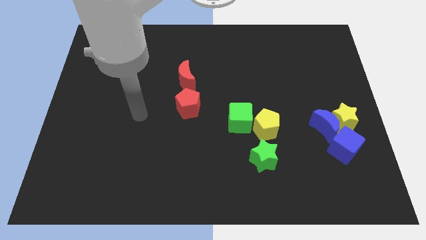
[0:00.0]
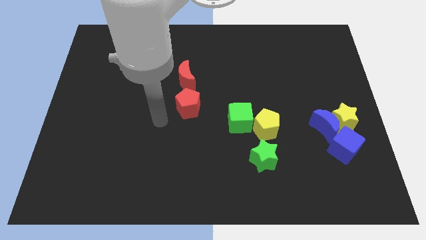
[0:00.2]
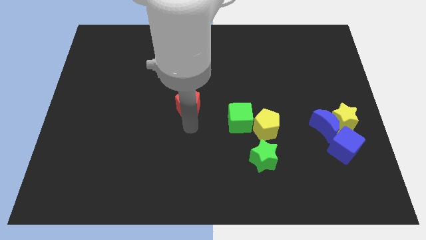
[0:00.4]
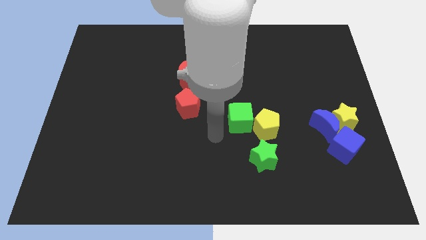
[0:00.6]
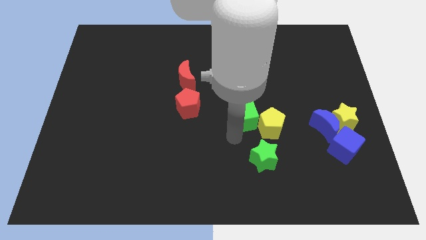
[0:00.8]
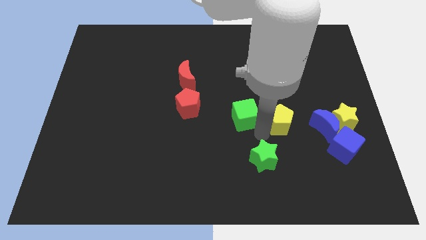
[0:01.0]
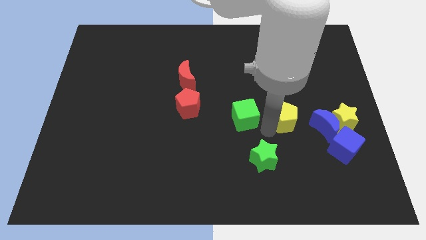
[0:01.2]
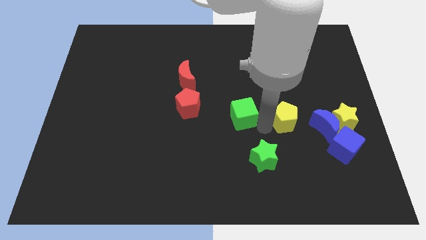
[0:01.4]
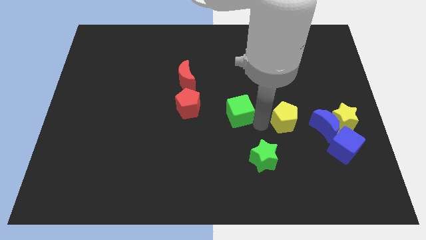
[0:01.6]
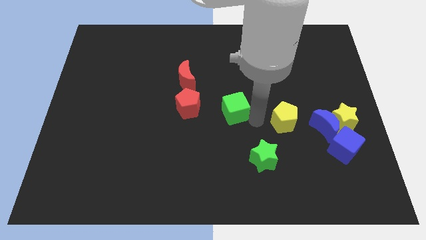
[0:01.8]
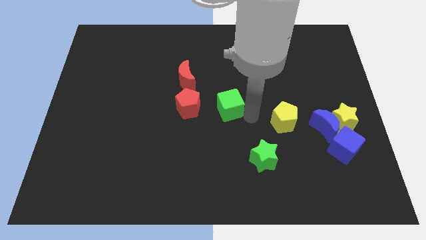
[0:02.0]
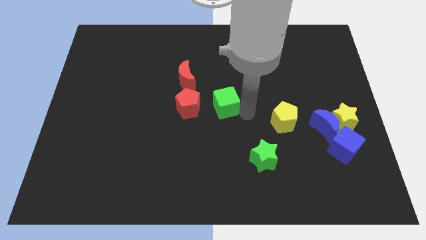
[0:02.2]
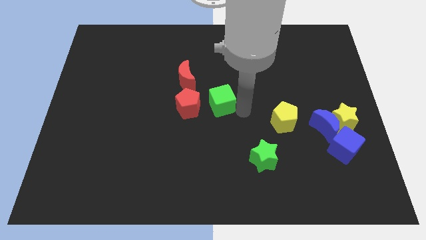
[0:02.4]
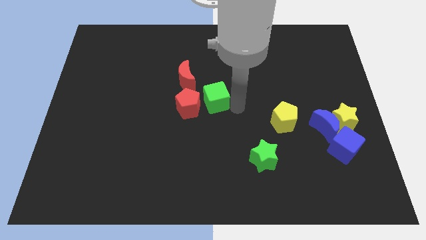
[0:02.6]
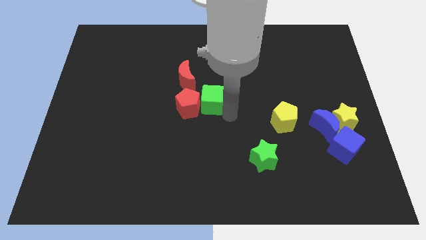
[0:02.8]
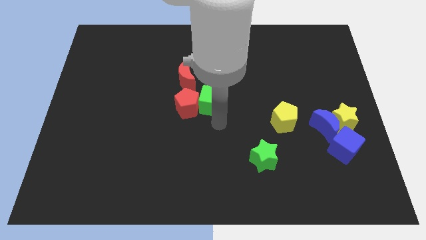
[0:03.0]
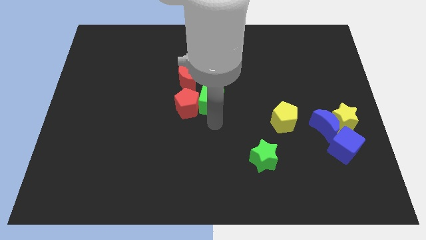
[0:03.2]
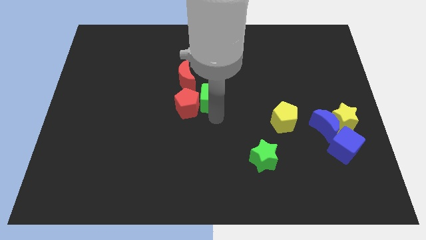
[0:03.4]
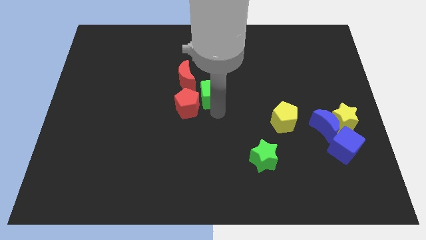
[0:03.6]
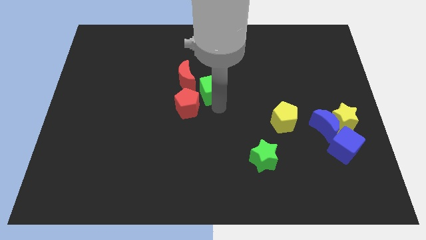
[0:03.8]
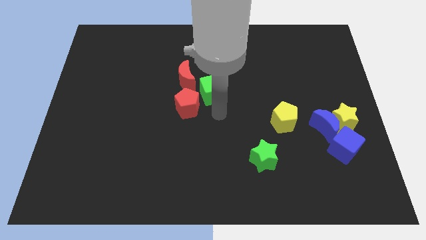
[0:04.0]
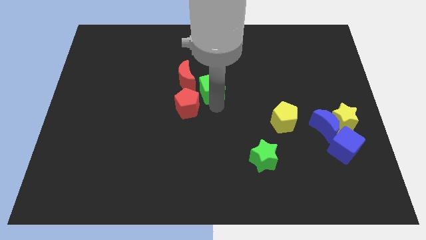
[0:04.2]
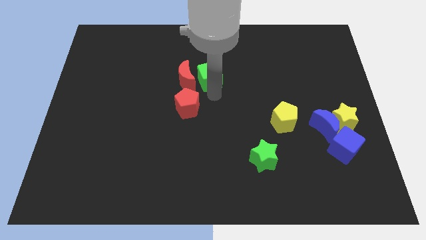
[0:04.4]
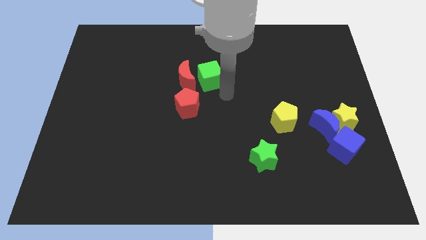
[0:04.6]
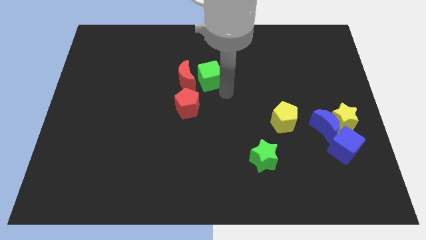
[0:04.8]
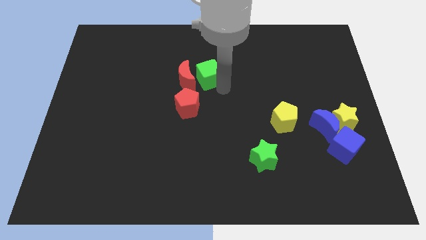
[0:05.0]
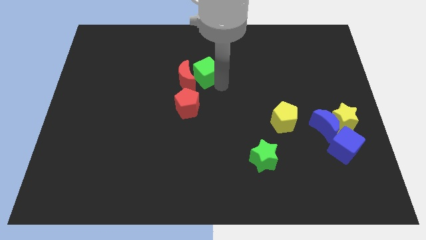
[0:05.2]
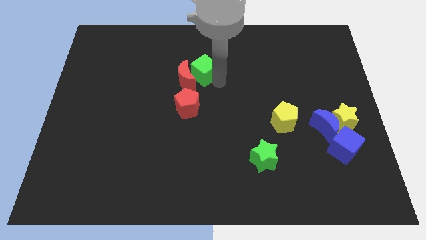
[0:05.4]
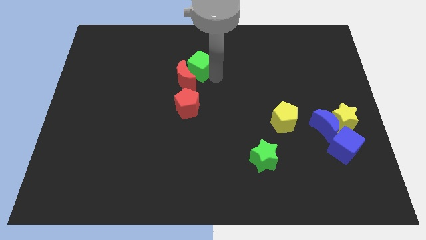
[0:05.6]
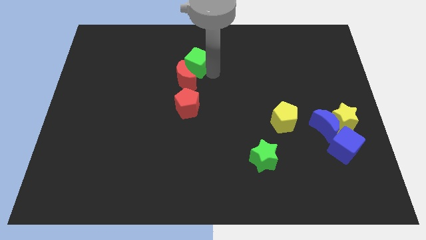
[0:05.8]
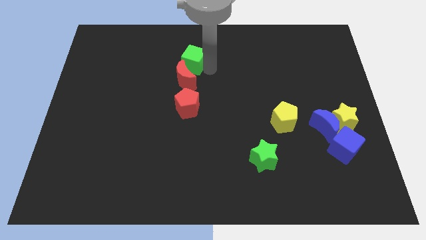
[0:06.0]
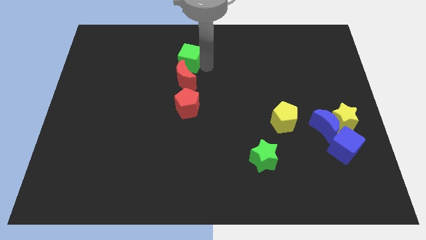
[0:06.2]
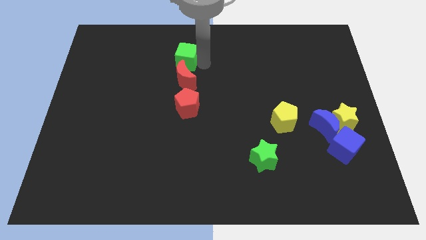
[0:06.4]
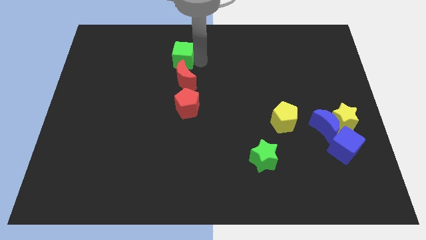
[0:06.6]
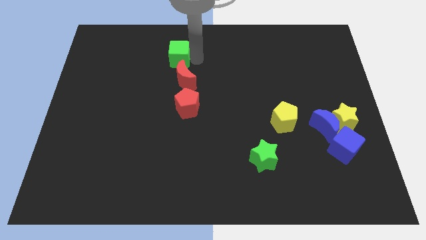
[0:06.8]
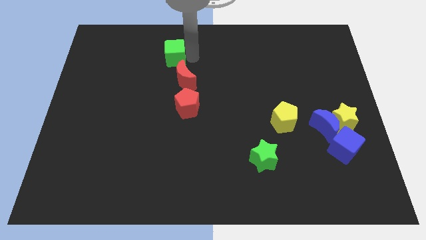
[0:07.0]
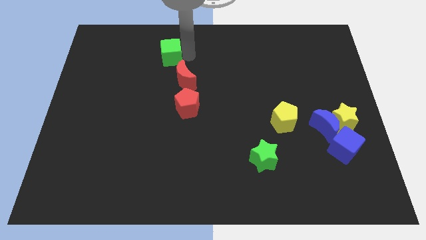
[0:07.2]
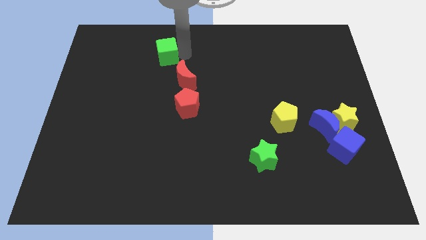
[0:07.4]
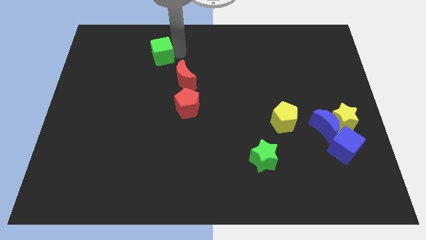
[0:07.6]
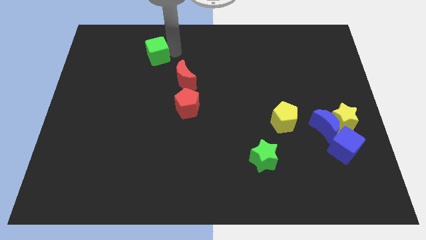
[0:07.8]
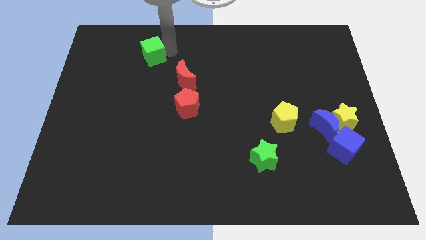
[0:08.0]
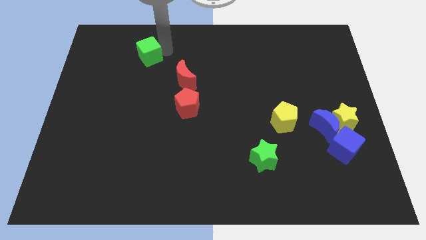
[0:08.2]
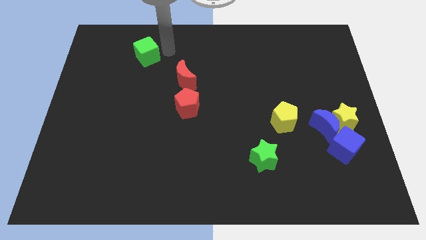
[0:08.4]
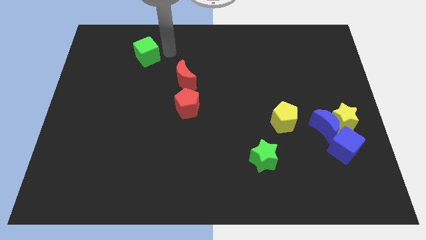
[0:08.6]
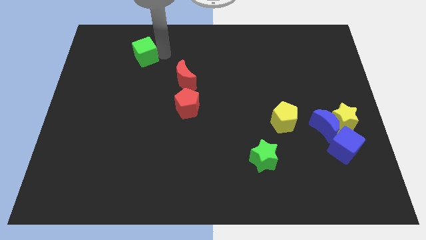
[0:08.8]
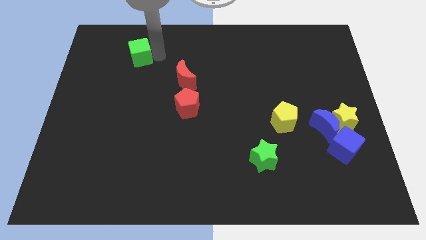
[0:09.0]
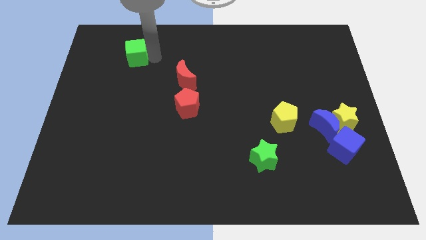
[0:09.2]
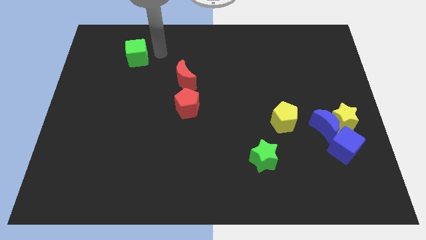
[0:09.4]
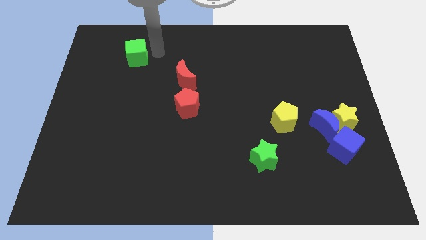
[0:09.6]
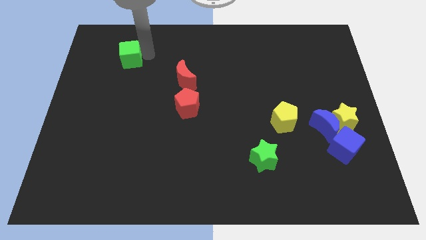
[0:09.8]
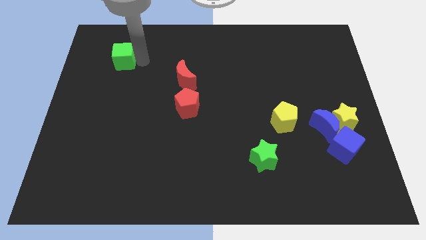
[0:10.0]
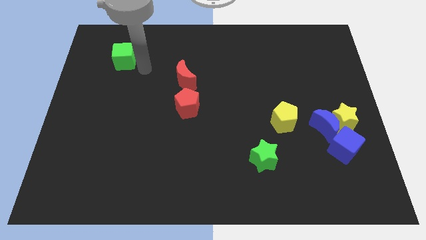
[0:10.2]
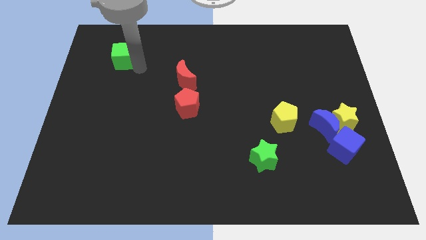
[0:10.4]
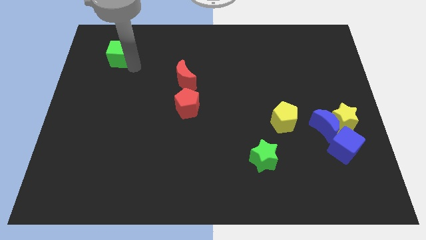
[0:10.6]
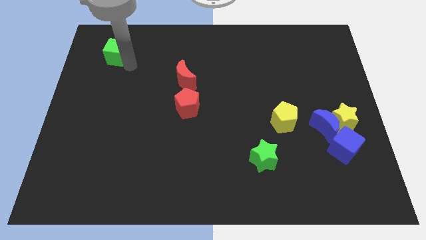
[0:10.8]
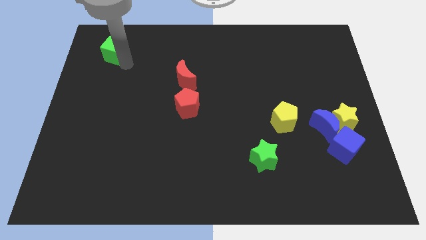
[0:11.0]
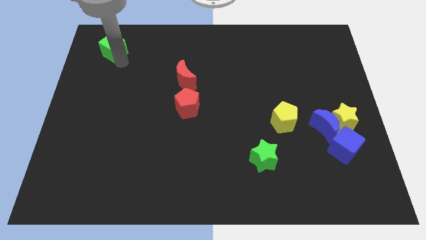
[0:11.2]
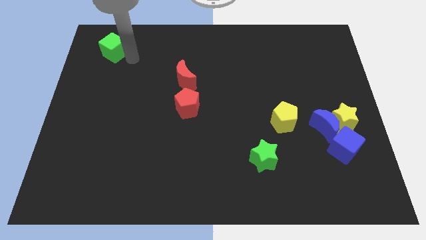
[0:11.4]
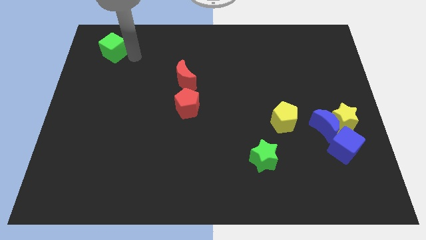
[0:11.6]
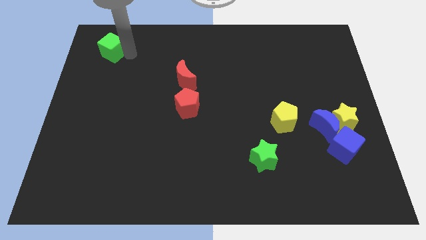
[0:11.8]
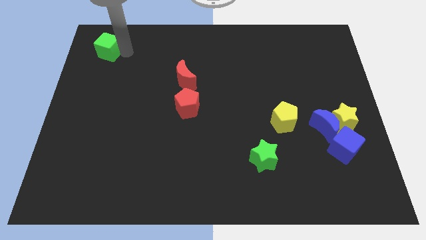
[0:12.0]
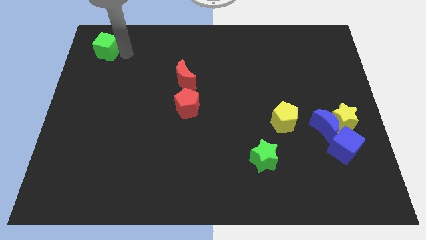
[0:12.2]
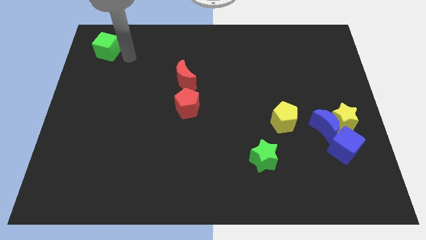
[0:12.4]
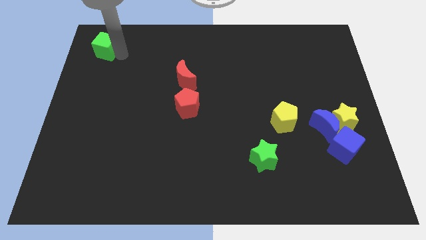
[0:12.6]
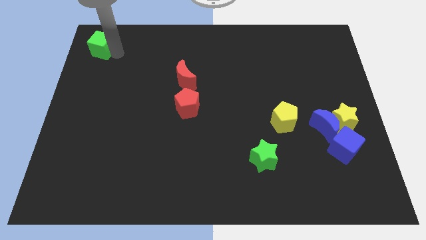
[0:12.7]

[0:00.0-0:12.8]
move the green cube to the top left of the board
